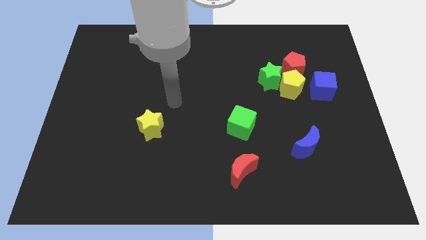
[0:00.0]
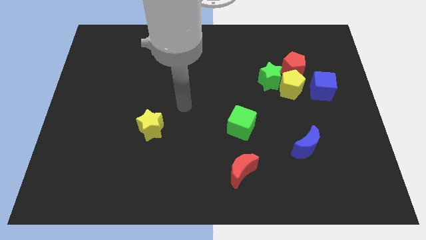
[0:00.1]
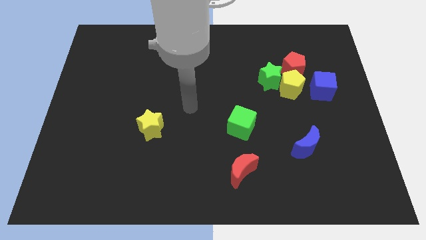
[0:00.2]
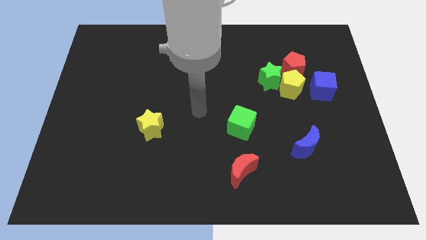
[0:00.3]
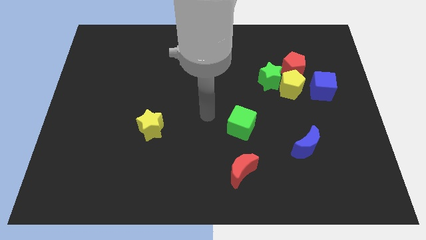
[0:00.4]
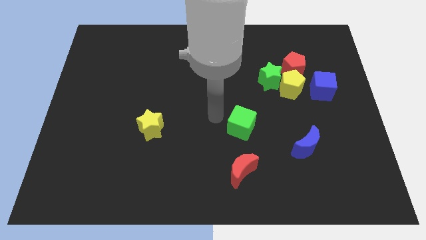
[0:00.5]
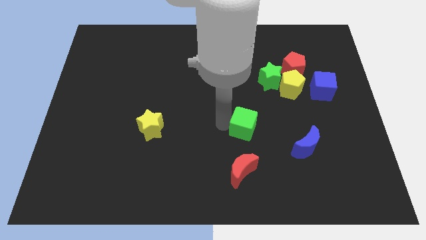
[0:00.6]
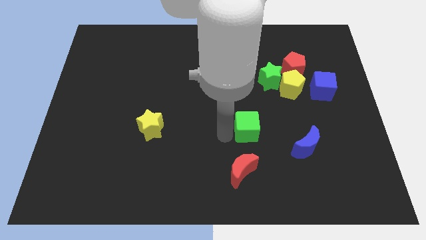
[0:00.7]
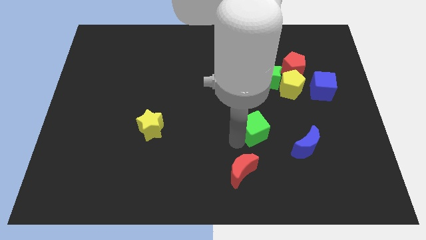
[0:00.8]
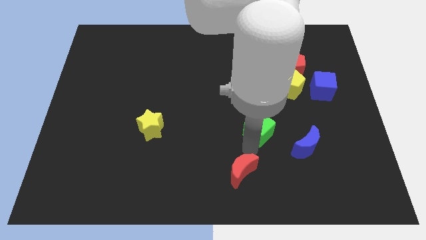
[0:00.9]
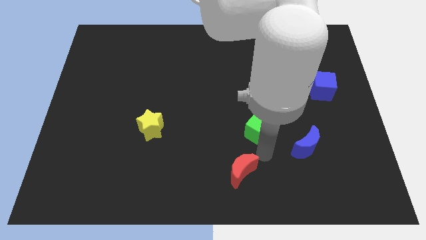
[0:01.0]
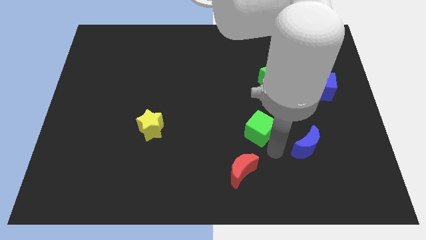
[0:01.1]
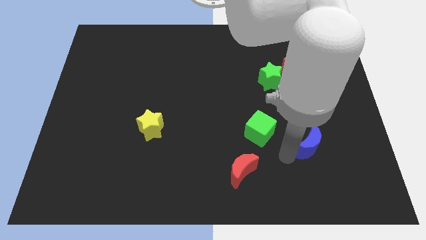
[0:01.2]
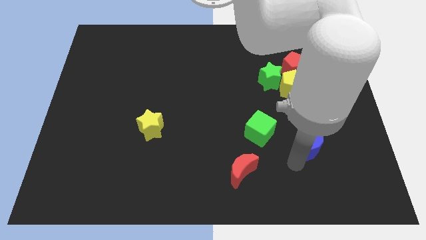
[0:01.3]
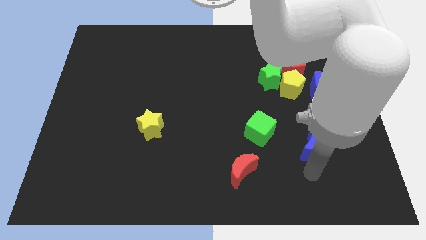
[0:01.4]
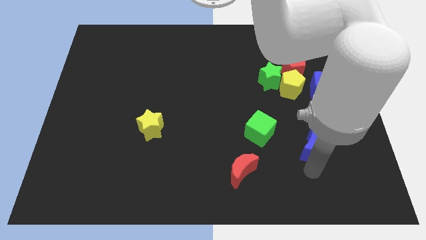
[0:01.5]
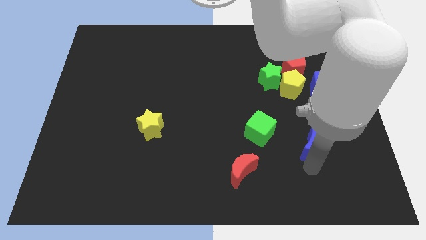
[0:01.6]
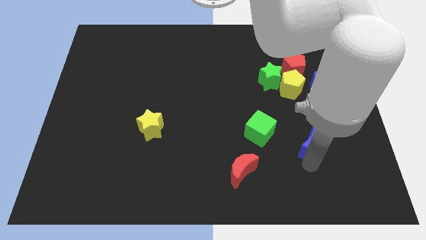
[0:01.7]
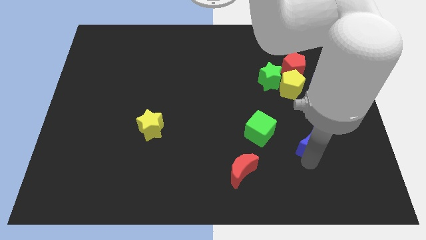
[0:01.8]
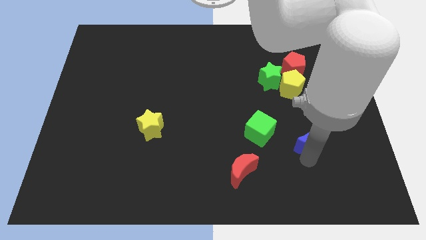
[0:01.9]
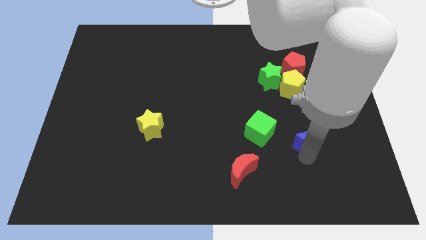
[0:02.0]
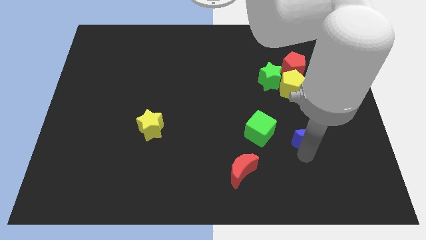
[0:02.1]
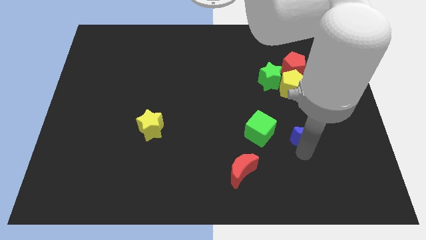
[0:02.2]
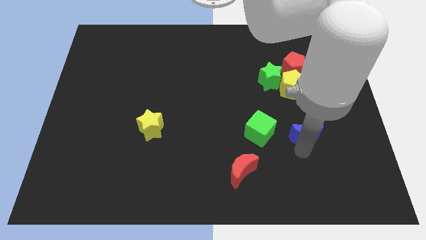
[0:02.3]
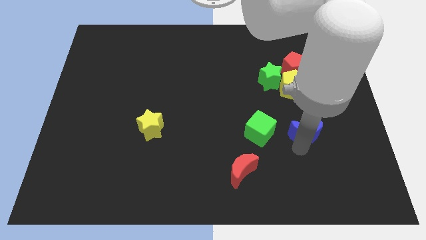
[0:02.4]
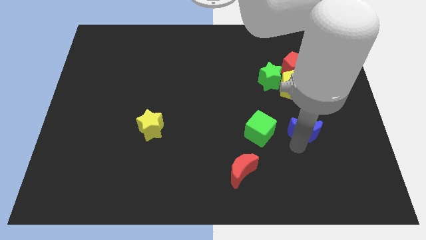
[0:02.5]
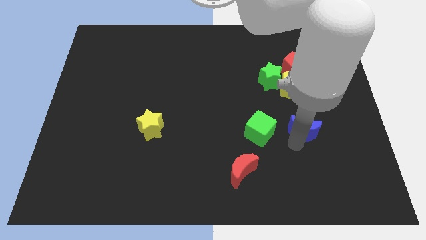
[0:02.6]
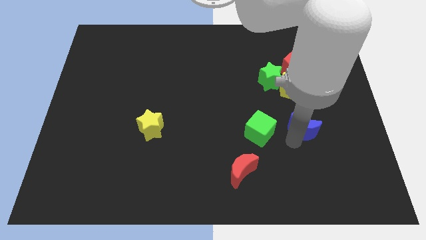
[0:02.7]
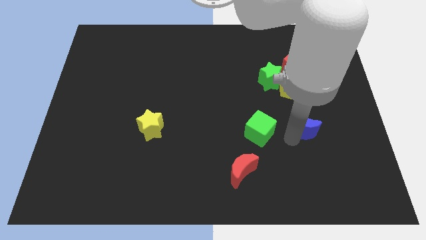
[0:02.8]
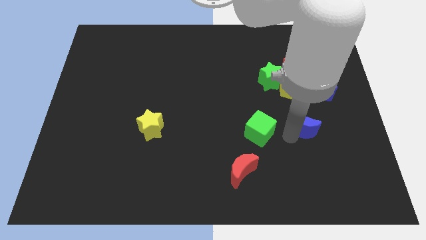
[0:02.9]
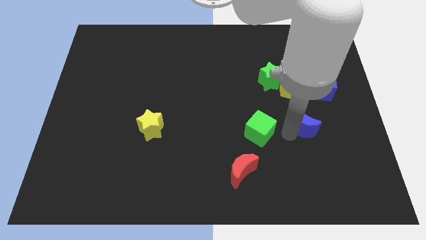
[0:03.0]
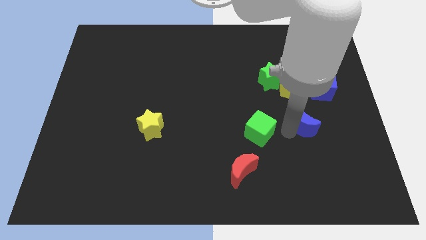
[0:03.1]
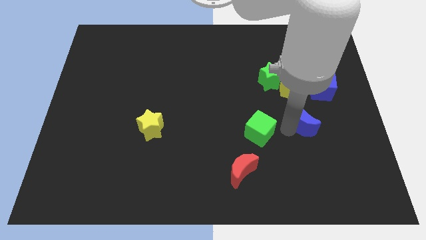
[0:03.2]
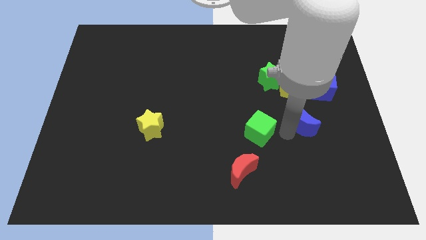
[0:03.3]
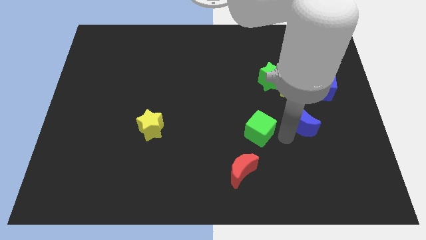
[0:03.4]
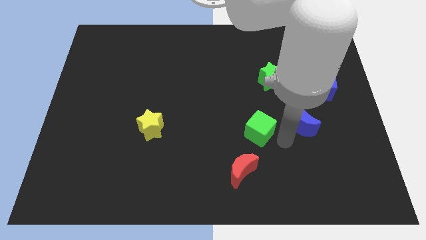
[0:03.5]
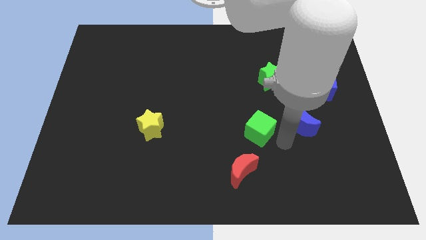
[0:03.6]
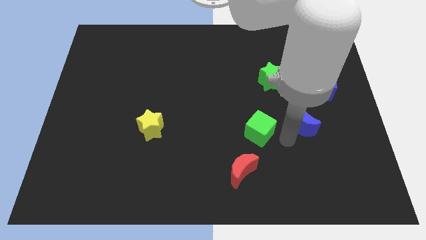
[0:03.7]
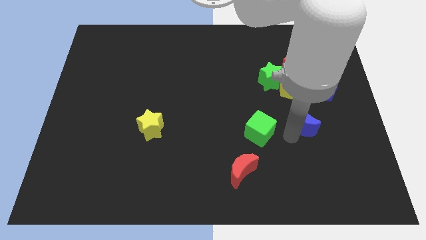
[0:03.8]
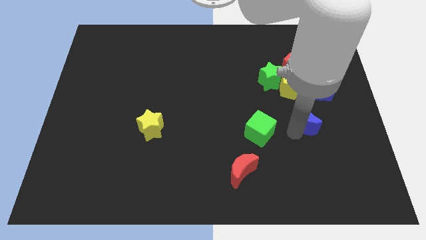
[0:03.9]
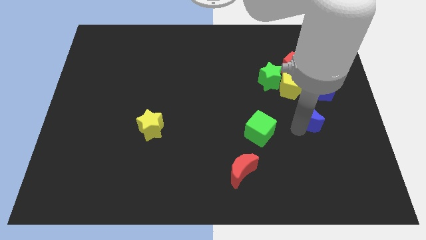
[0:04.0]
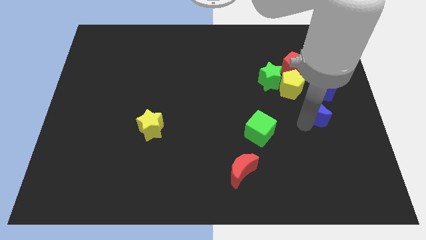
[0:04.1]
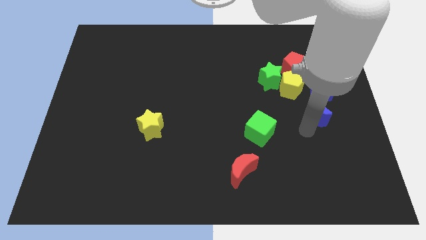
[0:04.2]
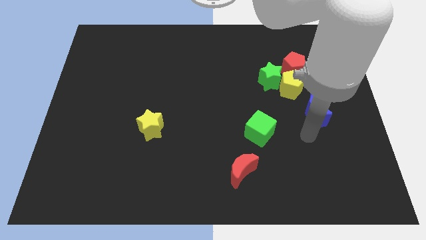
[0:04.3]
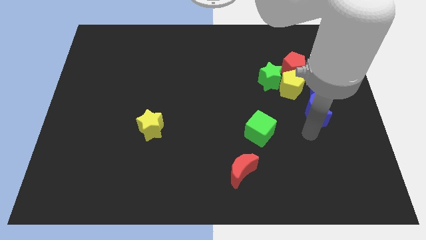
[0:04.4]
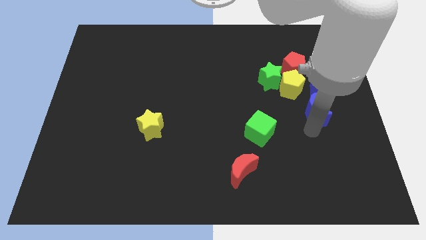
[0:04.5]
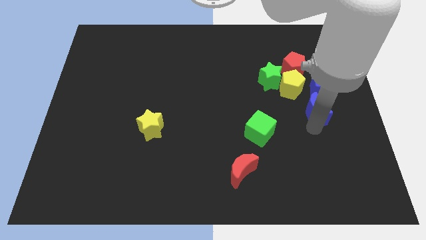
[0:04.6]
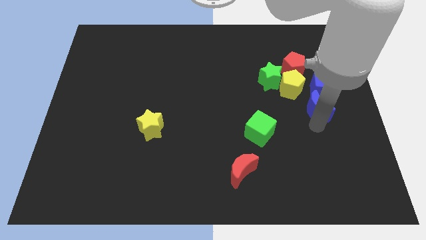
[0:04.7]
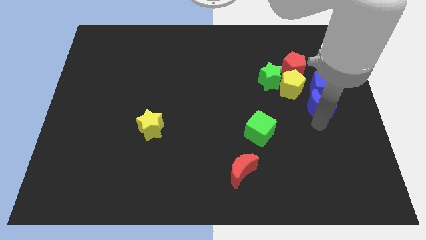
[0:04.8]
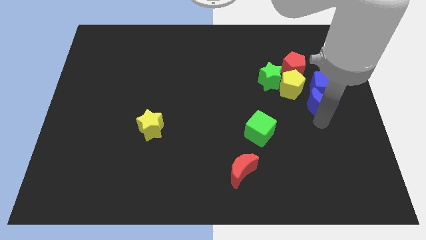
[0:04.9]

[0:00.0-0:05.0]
move the blue moon next to the blue cube

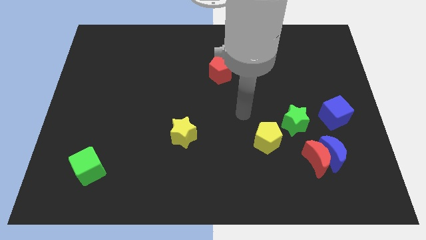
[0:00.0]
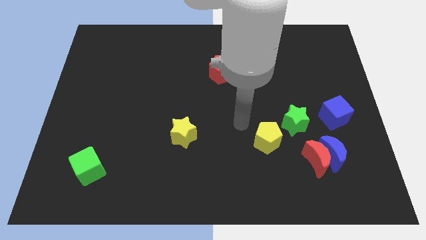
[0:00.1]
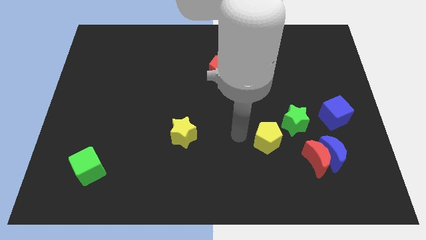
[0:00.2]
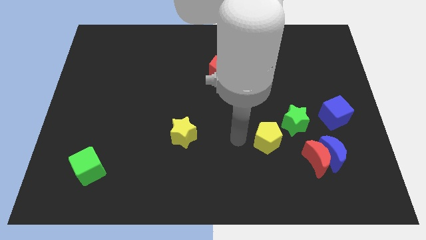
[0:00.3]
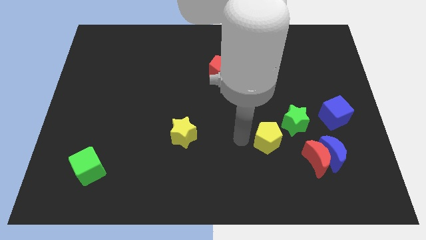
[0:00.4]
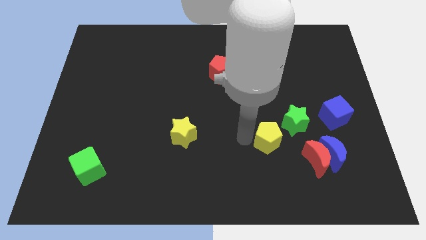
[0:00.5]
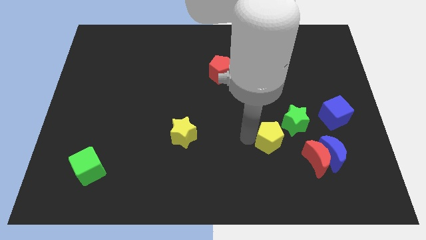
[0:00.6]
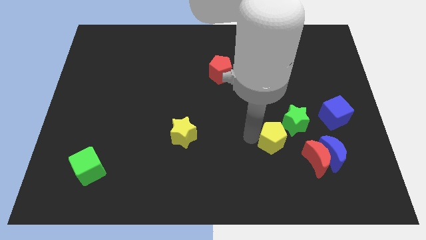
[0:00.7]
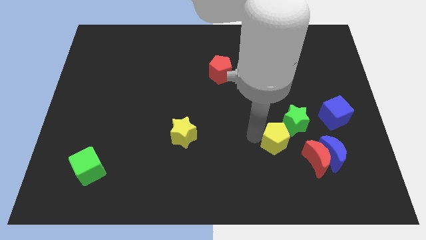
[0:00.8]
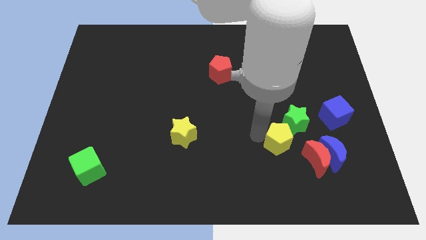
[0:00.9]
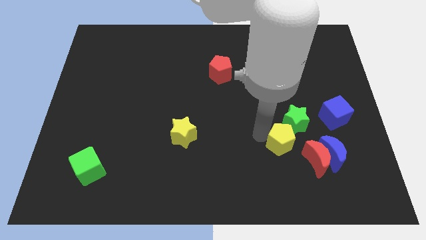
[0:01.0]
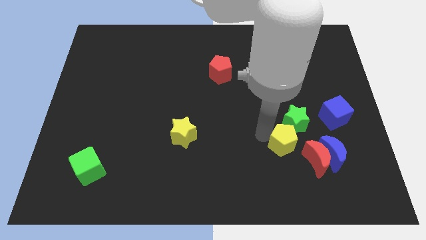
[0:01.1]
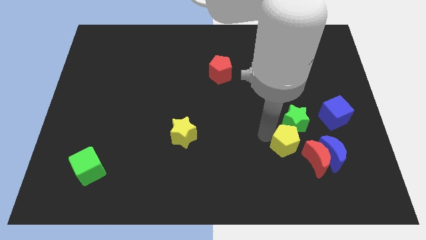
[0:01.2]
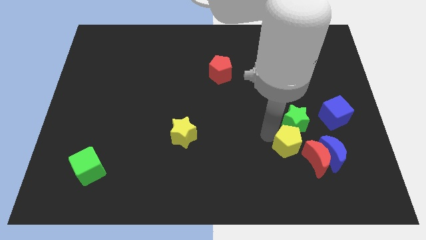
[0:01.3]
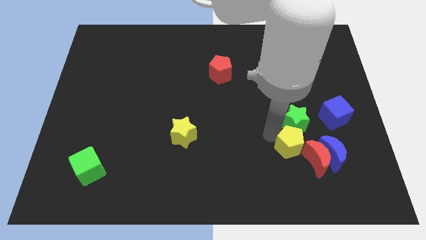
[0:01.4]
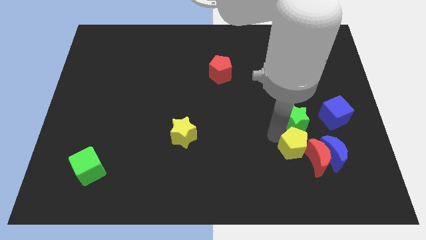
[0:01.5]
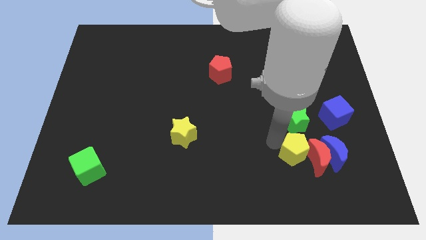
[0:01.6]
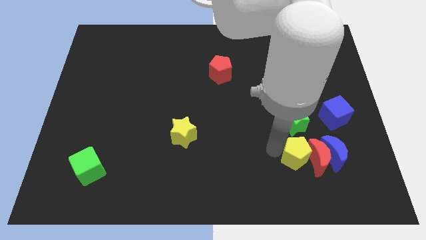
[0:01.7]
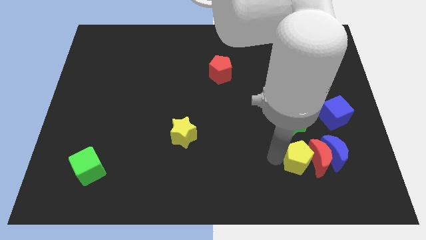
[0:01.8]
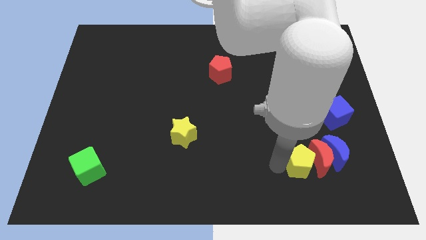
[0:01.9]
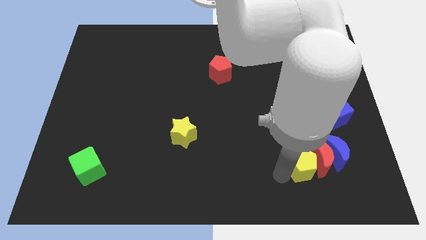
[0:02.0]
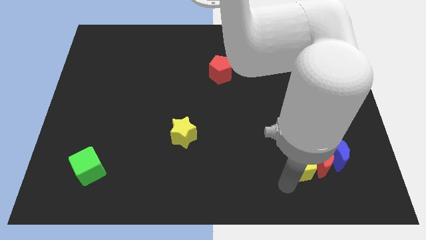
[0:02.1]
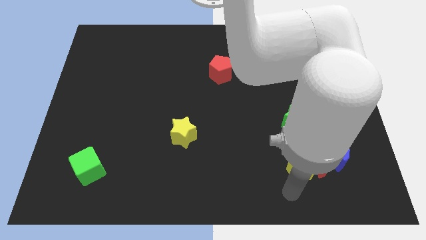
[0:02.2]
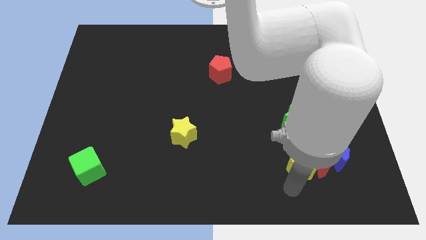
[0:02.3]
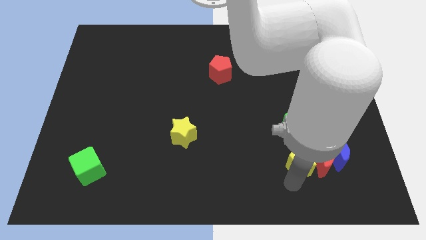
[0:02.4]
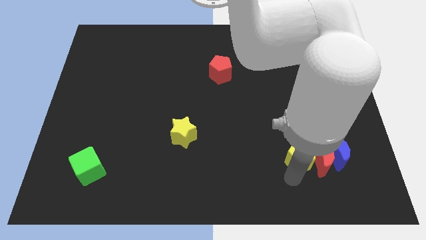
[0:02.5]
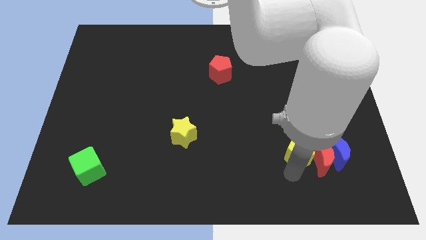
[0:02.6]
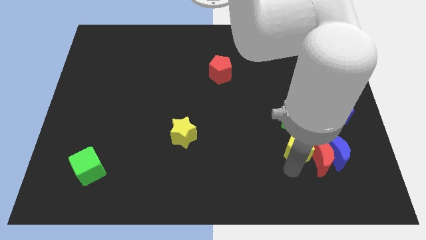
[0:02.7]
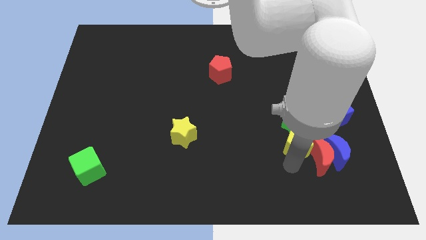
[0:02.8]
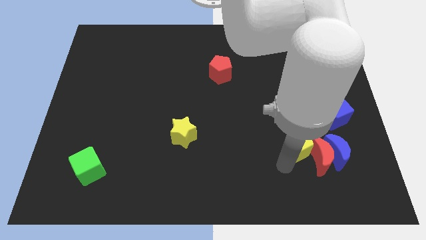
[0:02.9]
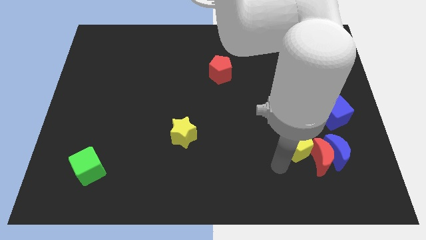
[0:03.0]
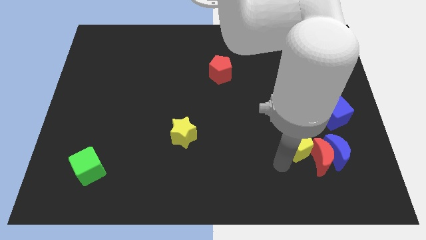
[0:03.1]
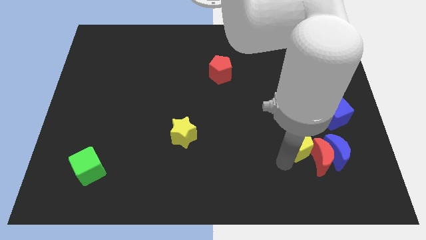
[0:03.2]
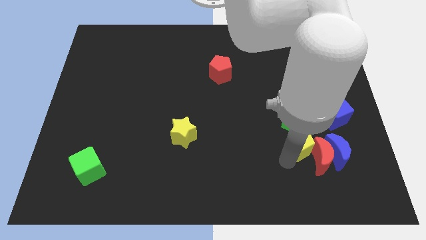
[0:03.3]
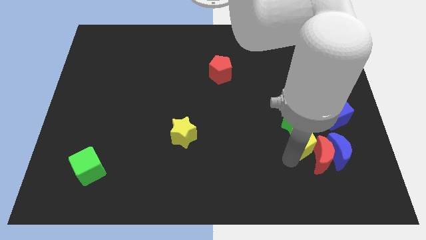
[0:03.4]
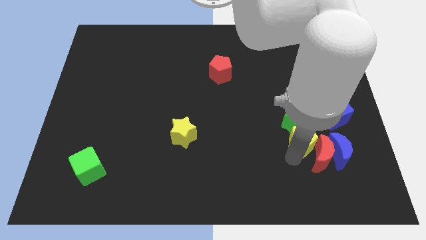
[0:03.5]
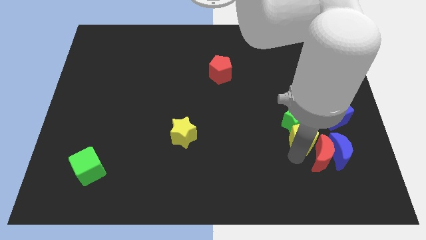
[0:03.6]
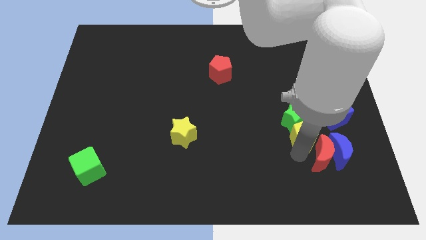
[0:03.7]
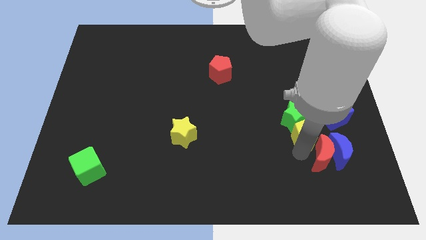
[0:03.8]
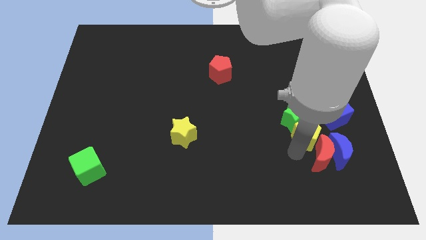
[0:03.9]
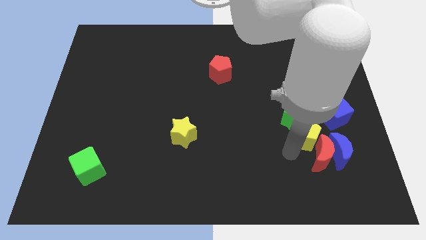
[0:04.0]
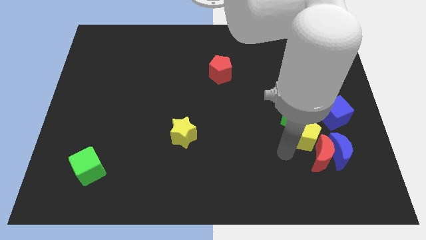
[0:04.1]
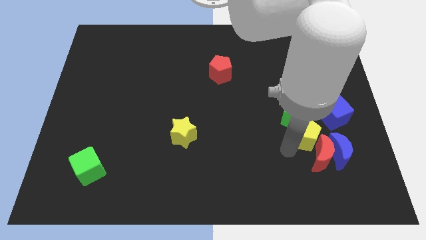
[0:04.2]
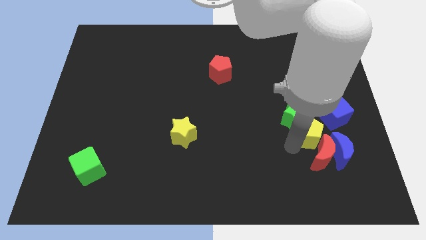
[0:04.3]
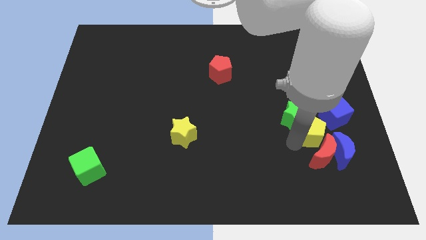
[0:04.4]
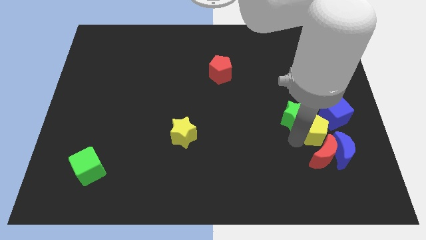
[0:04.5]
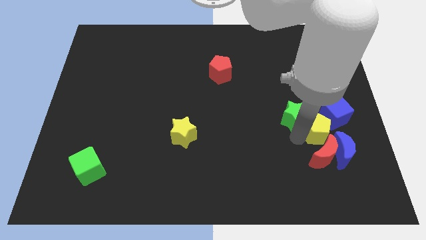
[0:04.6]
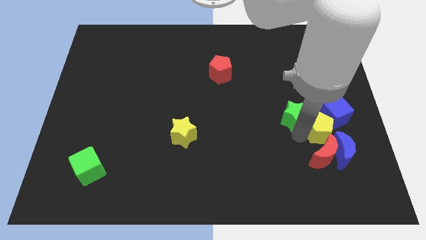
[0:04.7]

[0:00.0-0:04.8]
push the yellow pentagon next to the blue cube
